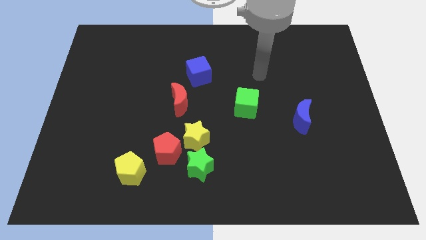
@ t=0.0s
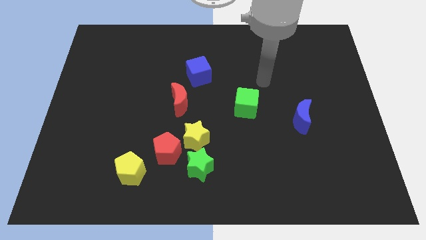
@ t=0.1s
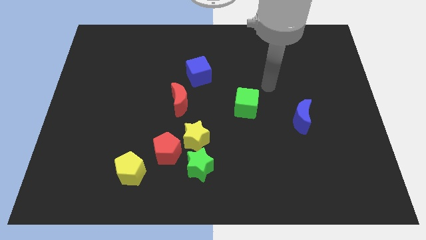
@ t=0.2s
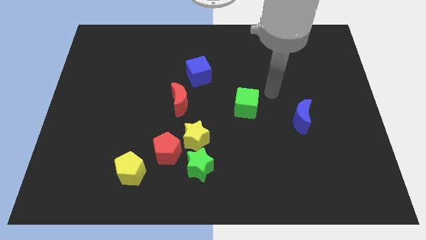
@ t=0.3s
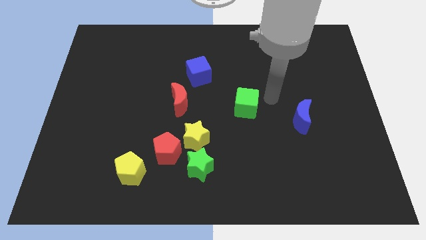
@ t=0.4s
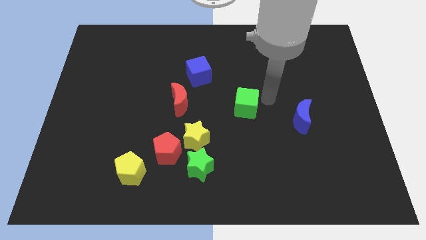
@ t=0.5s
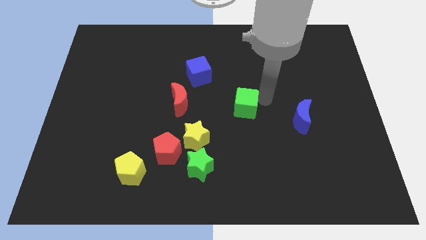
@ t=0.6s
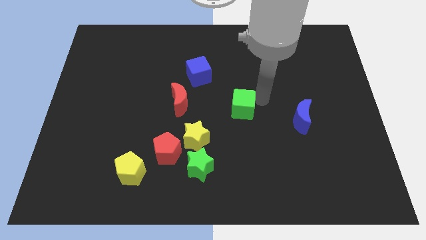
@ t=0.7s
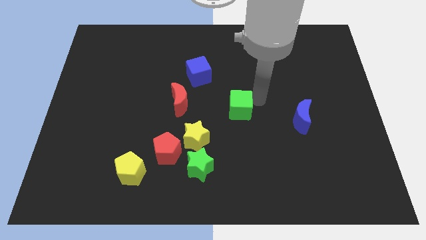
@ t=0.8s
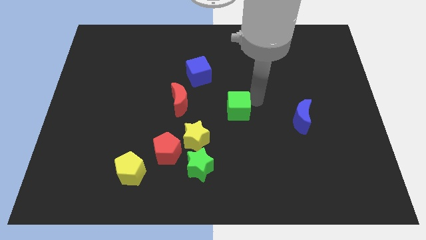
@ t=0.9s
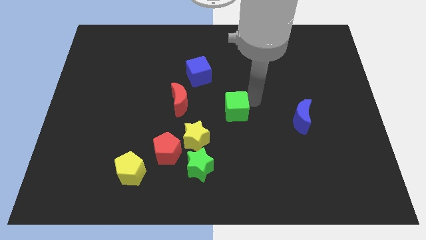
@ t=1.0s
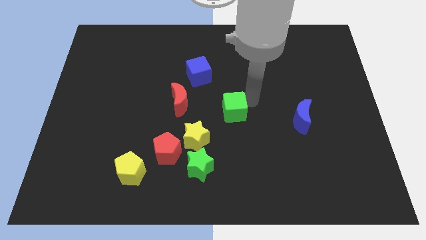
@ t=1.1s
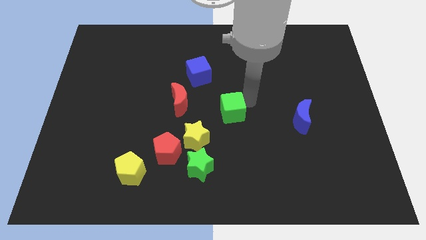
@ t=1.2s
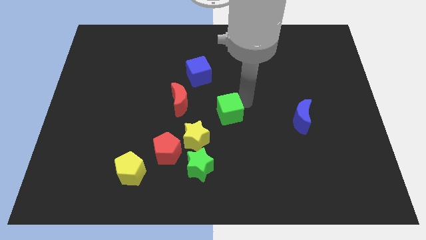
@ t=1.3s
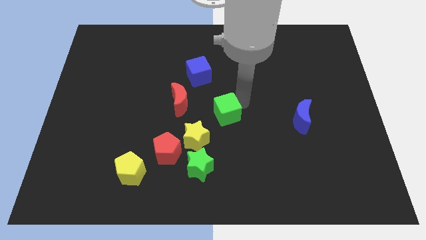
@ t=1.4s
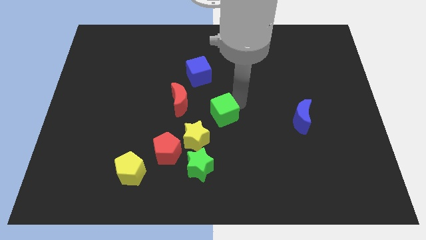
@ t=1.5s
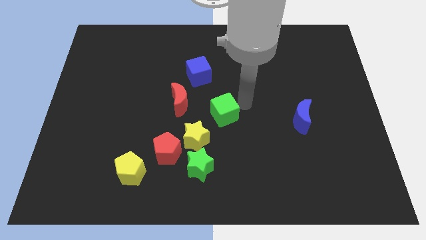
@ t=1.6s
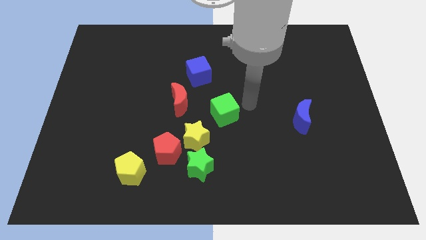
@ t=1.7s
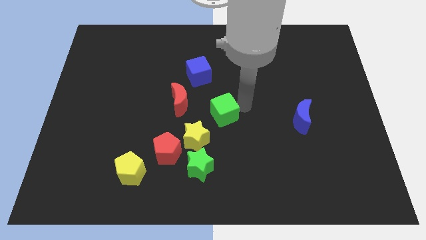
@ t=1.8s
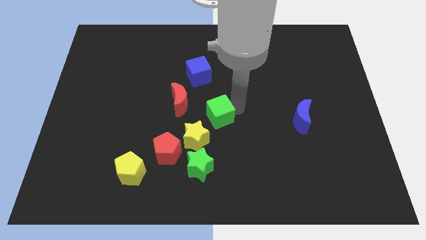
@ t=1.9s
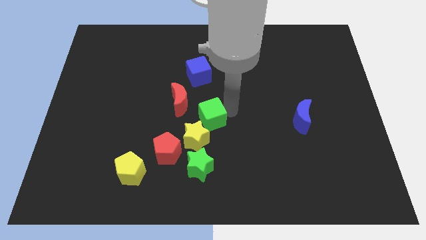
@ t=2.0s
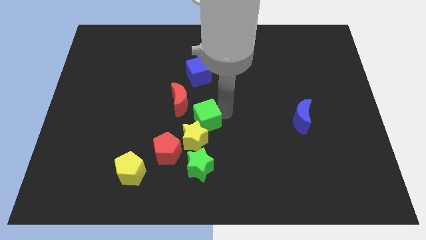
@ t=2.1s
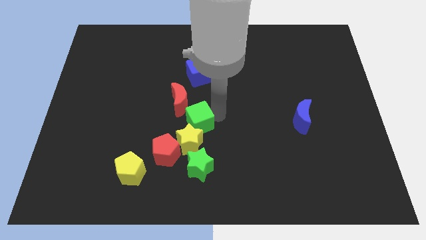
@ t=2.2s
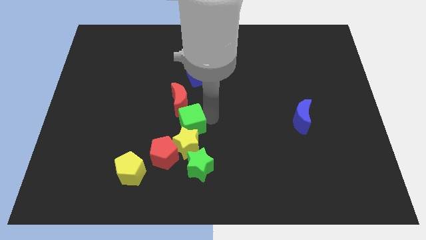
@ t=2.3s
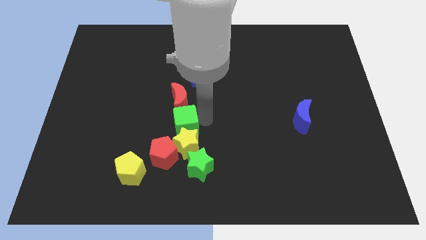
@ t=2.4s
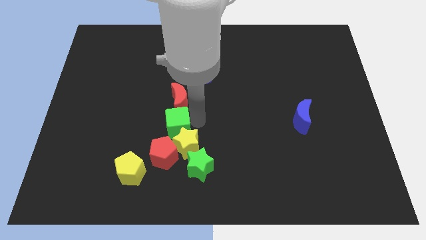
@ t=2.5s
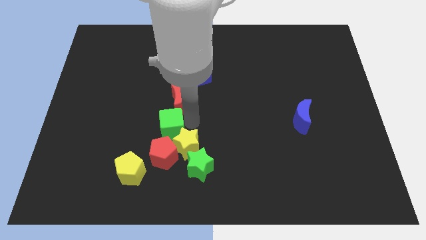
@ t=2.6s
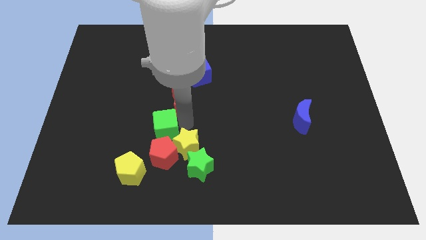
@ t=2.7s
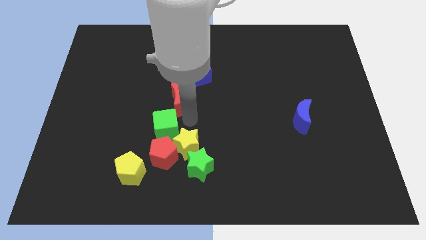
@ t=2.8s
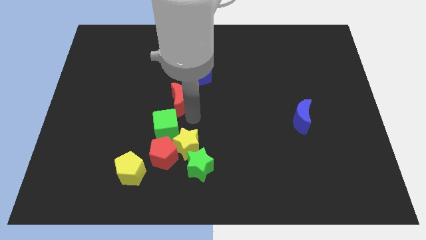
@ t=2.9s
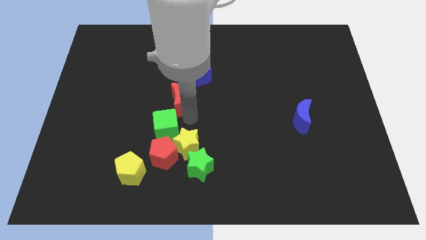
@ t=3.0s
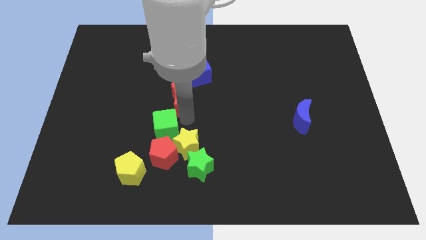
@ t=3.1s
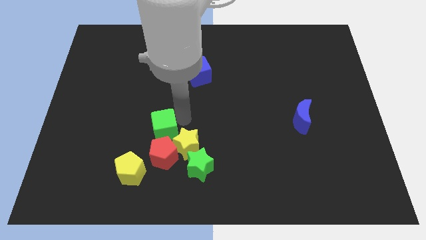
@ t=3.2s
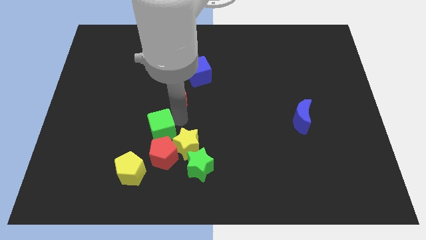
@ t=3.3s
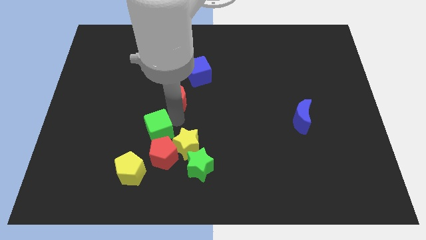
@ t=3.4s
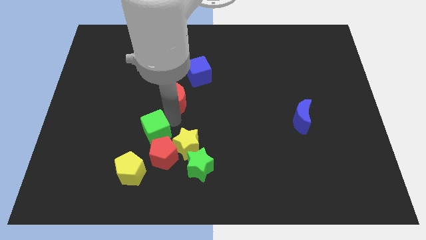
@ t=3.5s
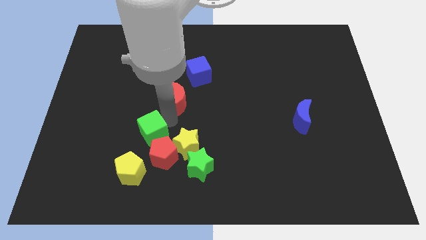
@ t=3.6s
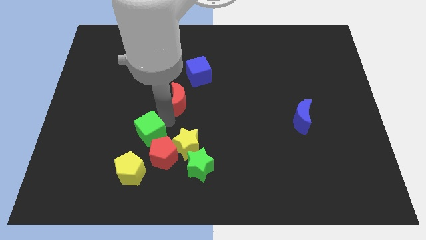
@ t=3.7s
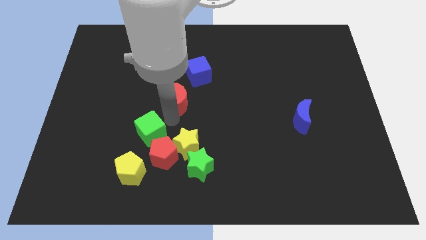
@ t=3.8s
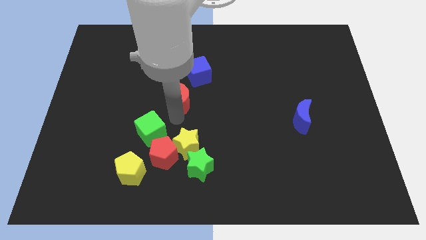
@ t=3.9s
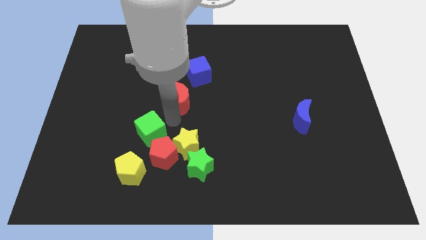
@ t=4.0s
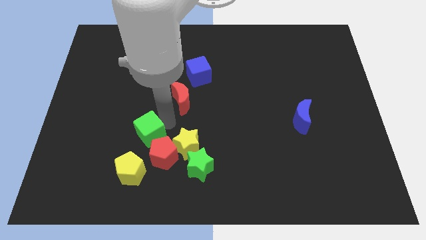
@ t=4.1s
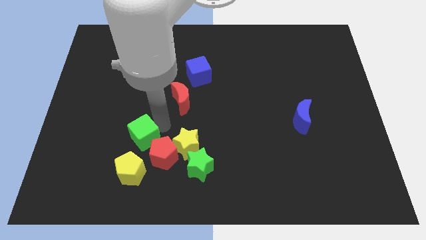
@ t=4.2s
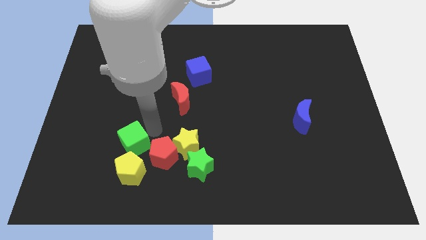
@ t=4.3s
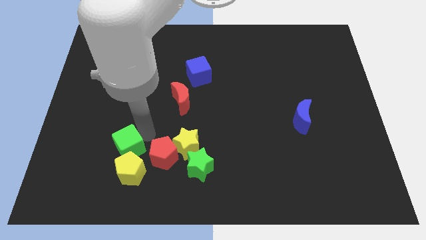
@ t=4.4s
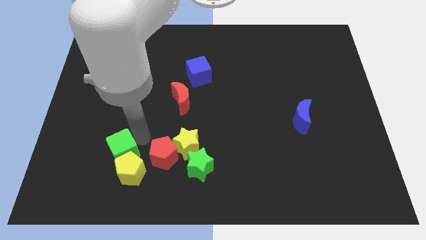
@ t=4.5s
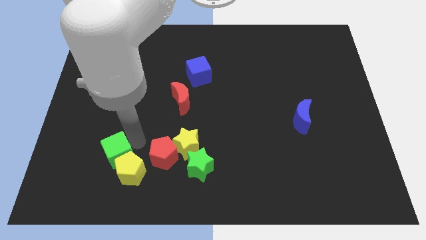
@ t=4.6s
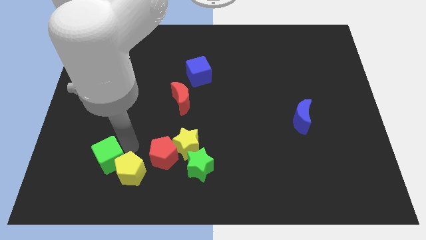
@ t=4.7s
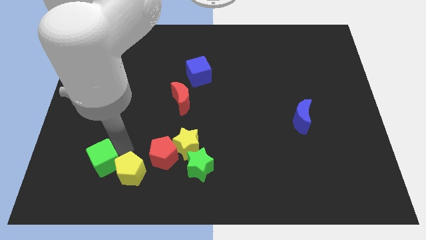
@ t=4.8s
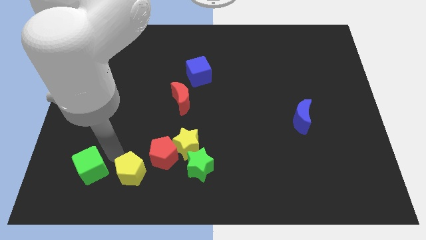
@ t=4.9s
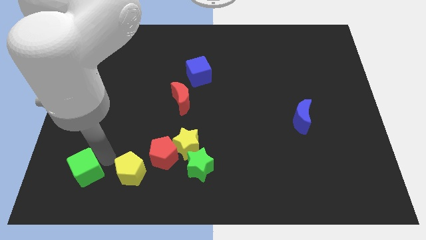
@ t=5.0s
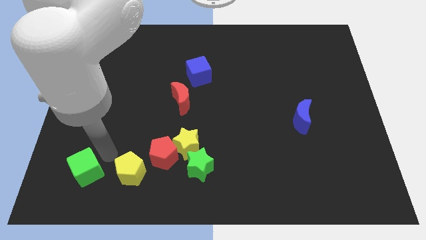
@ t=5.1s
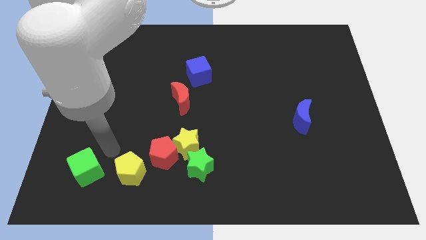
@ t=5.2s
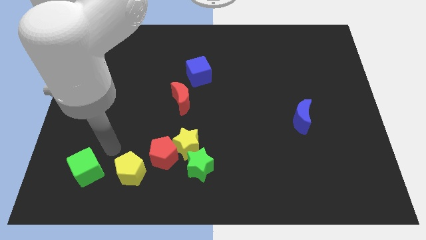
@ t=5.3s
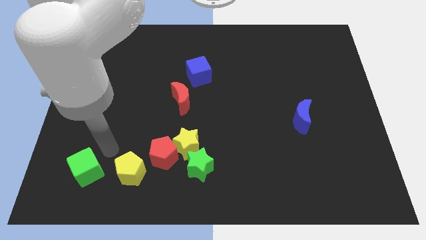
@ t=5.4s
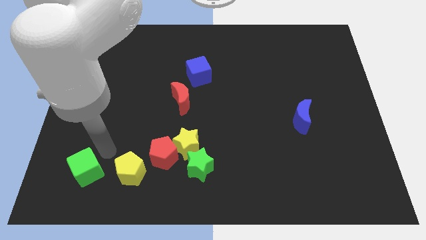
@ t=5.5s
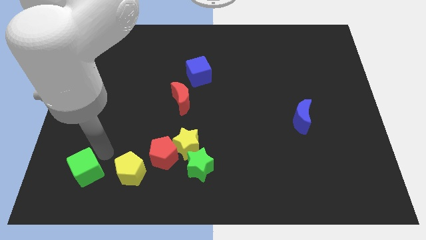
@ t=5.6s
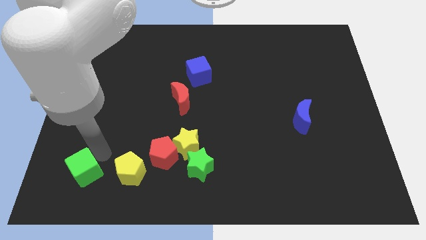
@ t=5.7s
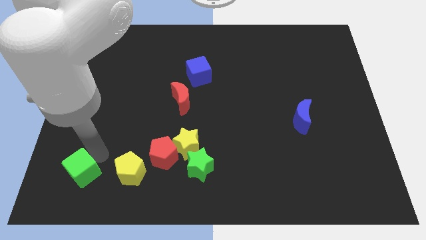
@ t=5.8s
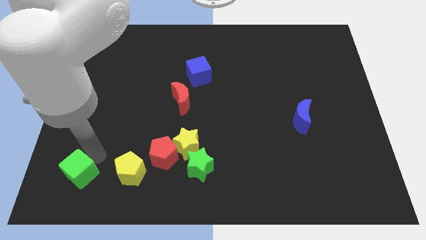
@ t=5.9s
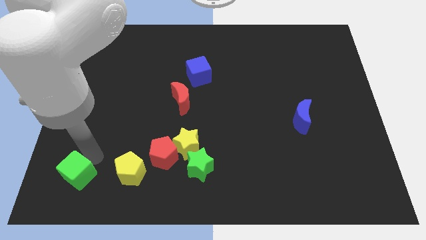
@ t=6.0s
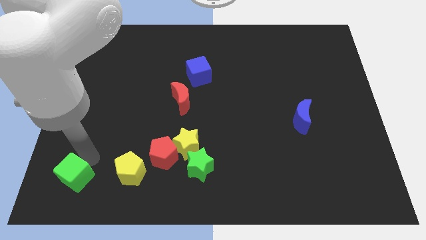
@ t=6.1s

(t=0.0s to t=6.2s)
slide the green cube to the bottom left

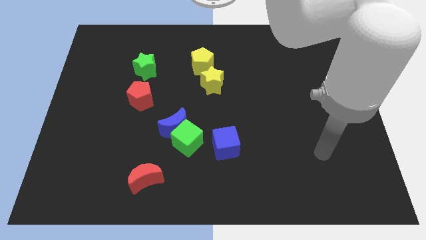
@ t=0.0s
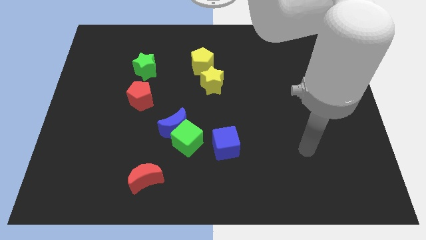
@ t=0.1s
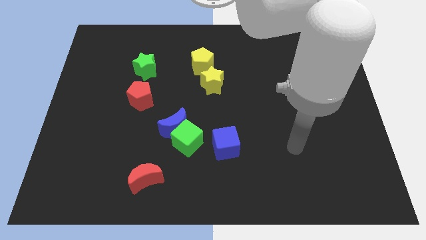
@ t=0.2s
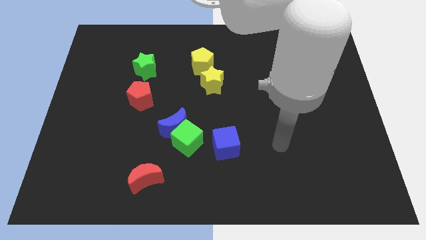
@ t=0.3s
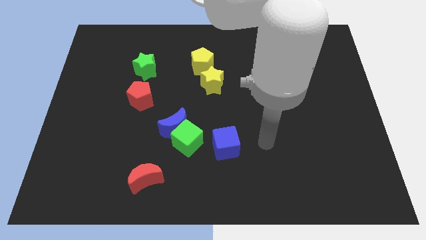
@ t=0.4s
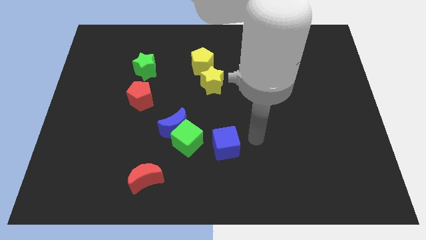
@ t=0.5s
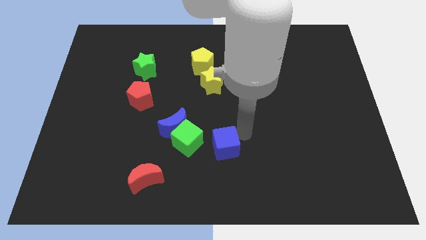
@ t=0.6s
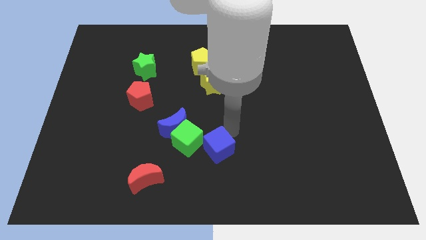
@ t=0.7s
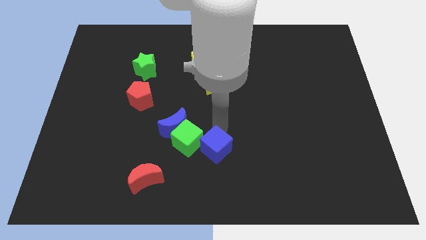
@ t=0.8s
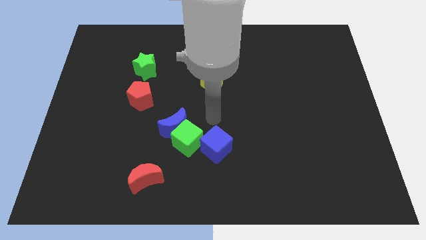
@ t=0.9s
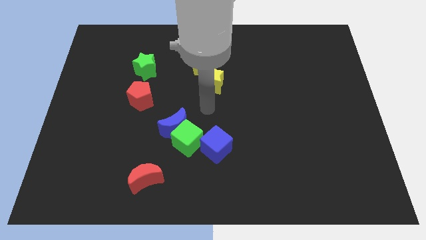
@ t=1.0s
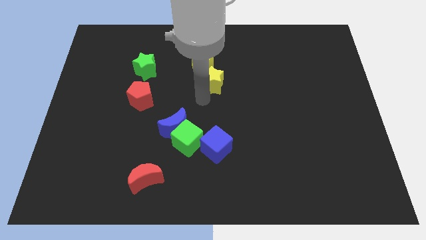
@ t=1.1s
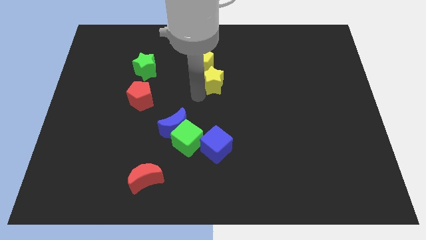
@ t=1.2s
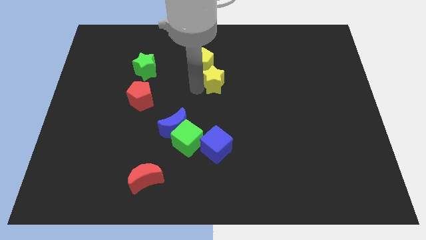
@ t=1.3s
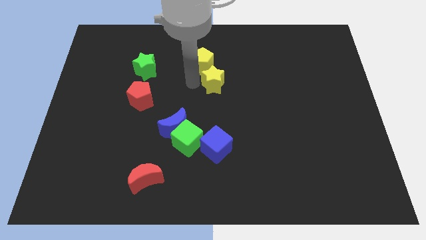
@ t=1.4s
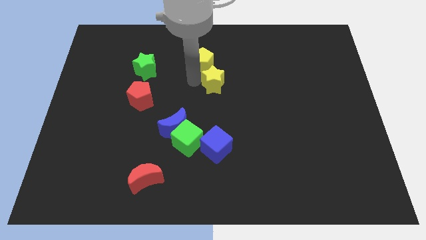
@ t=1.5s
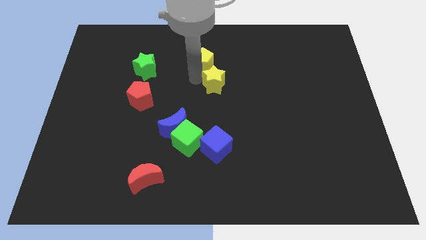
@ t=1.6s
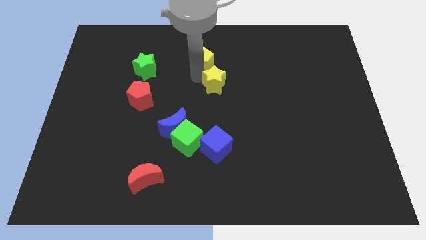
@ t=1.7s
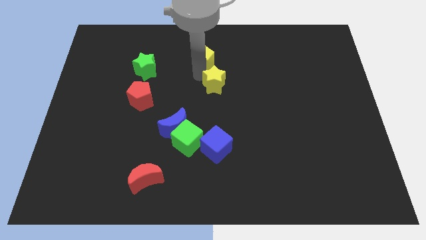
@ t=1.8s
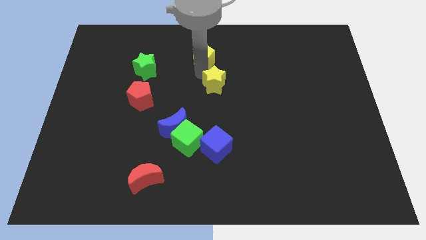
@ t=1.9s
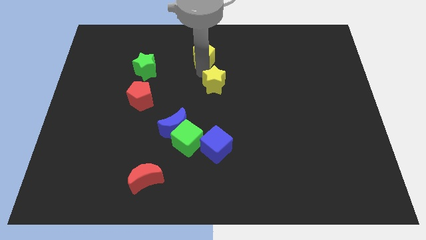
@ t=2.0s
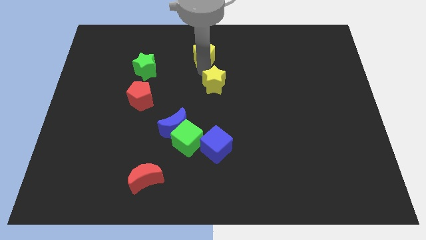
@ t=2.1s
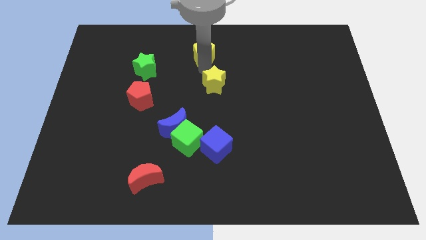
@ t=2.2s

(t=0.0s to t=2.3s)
push the yellow pentagon to the towards your base
